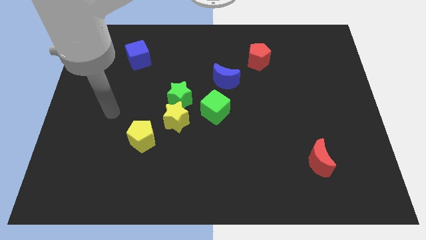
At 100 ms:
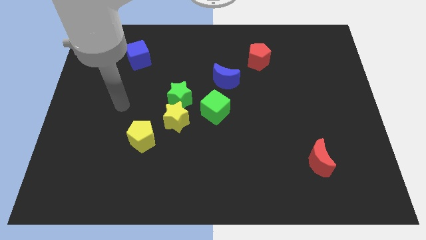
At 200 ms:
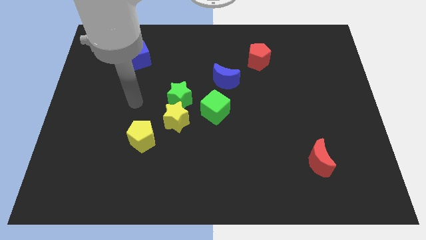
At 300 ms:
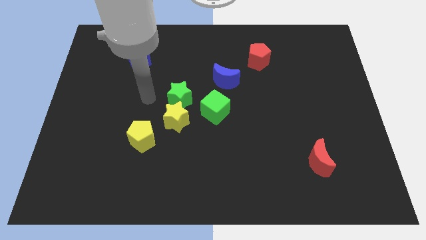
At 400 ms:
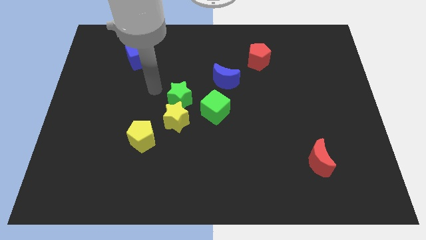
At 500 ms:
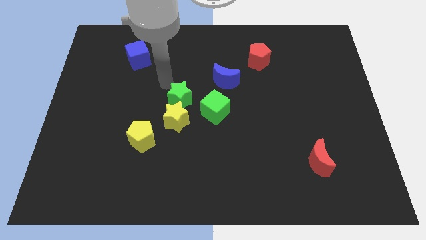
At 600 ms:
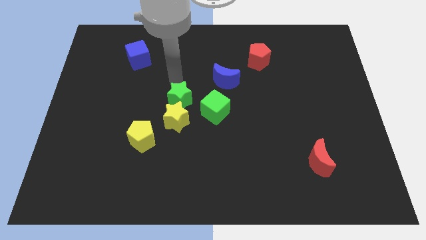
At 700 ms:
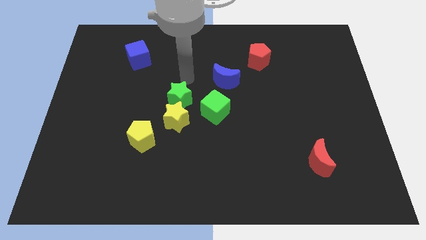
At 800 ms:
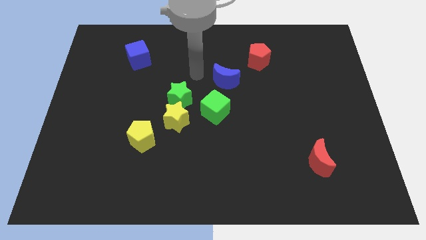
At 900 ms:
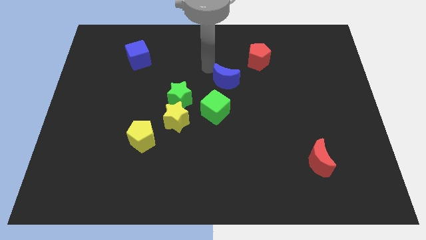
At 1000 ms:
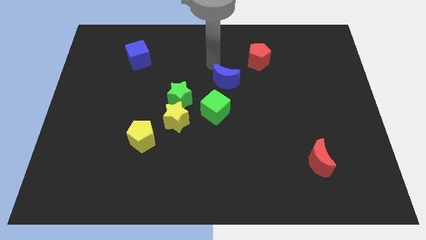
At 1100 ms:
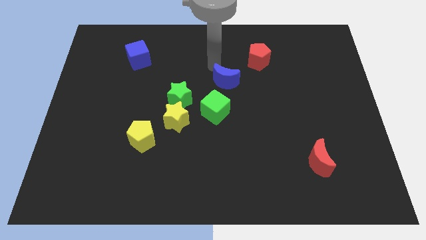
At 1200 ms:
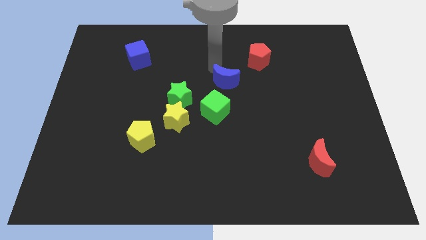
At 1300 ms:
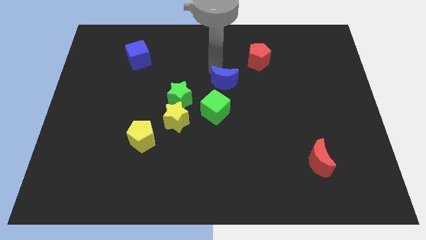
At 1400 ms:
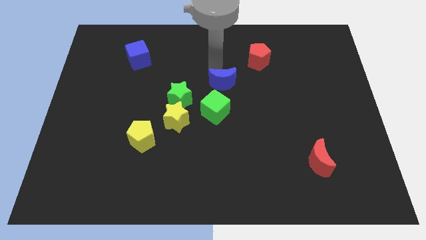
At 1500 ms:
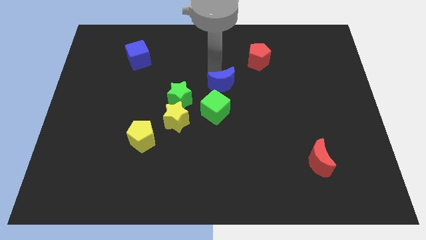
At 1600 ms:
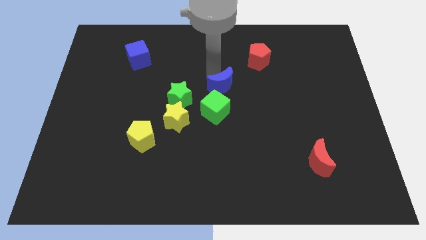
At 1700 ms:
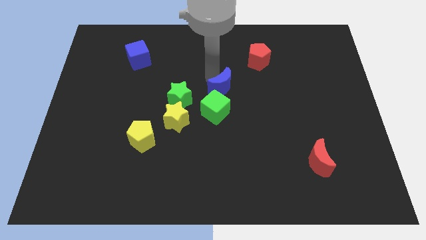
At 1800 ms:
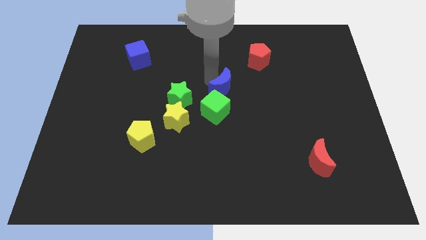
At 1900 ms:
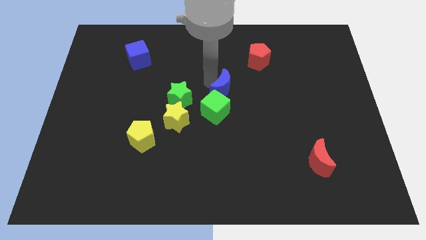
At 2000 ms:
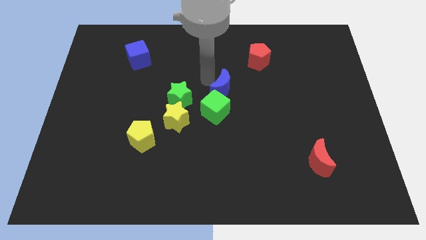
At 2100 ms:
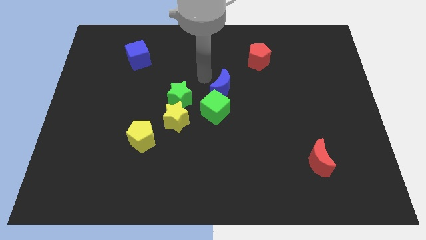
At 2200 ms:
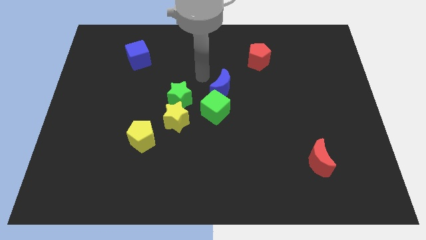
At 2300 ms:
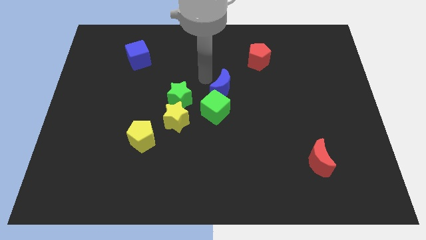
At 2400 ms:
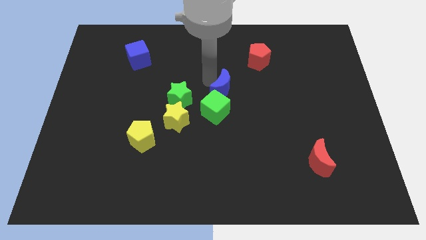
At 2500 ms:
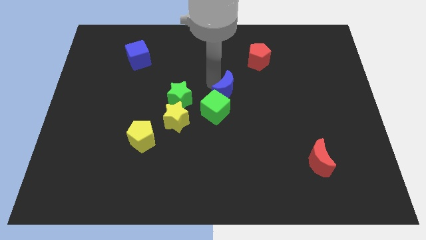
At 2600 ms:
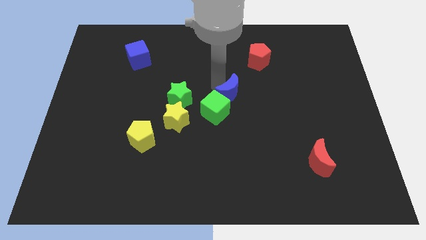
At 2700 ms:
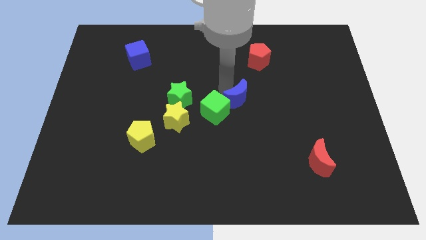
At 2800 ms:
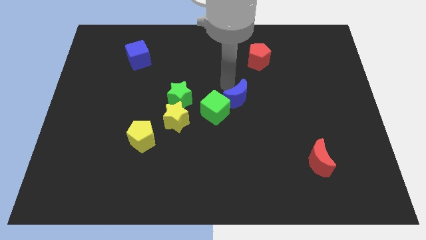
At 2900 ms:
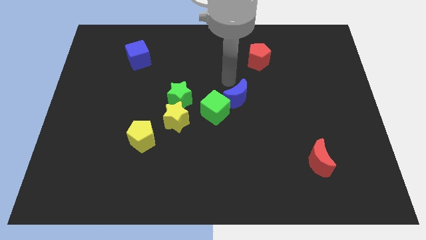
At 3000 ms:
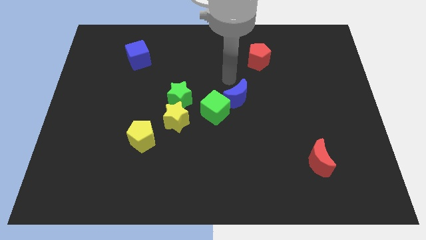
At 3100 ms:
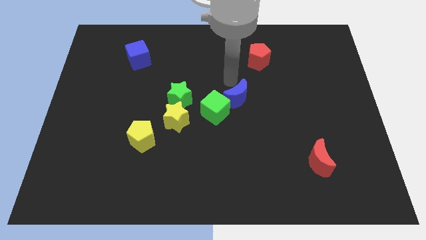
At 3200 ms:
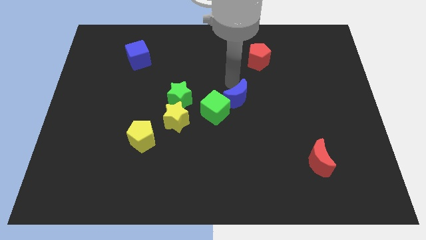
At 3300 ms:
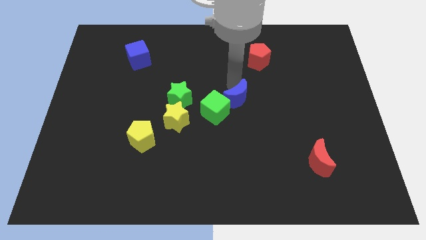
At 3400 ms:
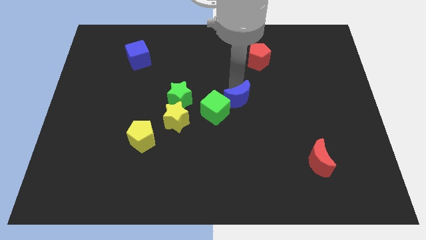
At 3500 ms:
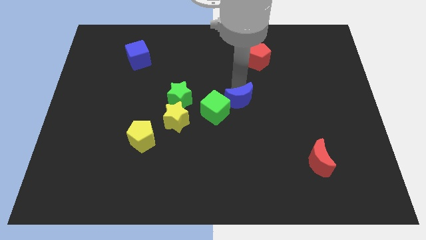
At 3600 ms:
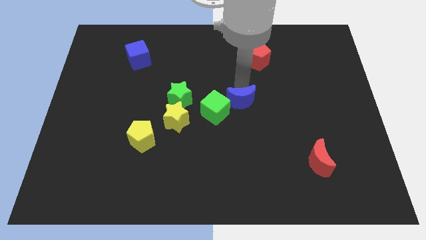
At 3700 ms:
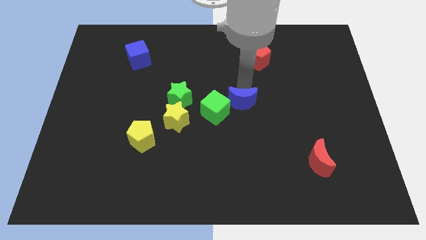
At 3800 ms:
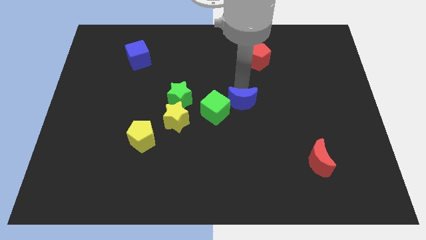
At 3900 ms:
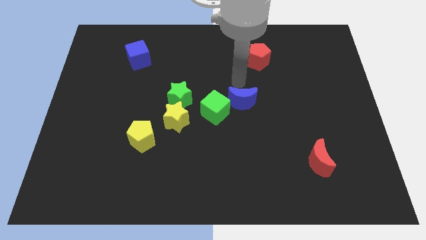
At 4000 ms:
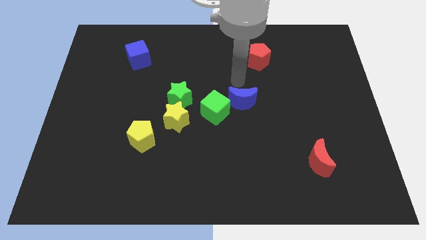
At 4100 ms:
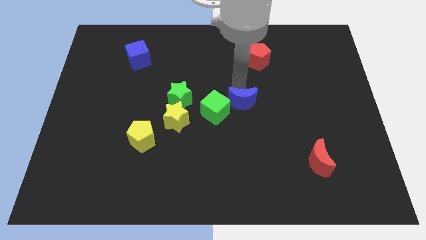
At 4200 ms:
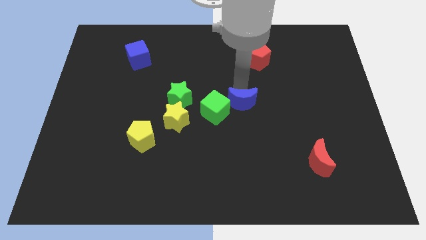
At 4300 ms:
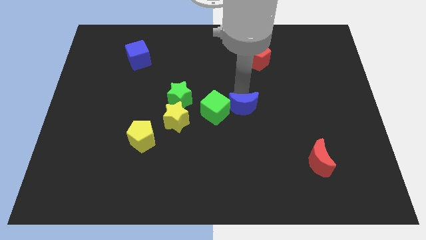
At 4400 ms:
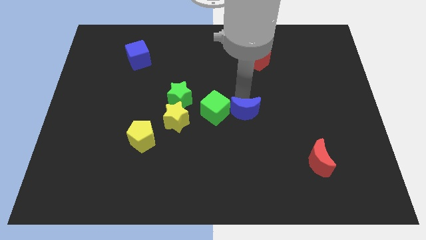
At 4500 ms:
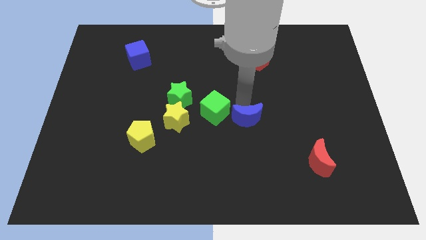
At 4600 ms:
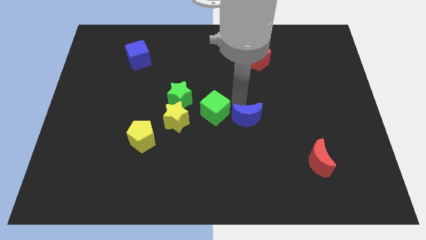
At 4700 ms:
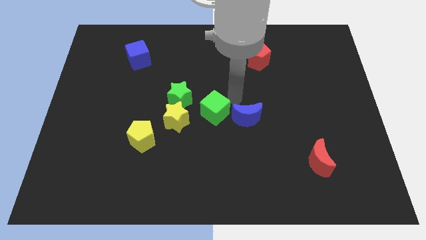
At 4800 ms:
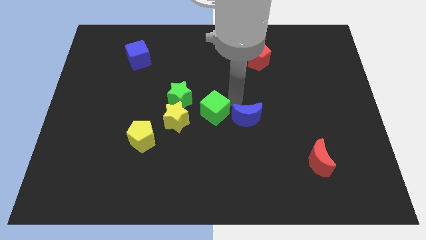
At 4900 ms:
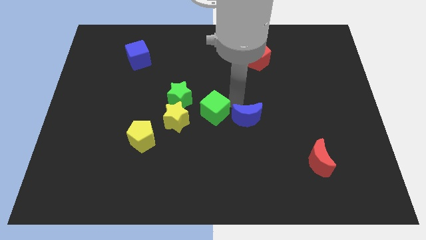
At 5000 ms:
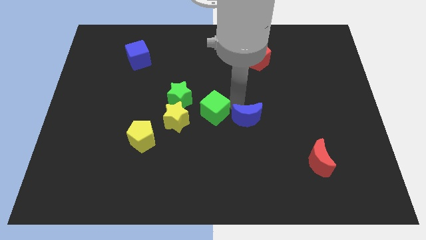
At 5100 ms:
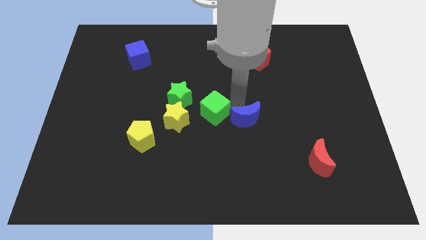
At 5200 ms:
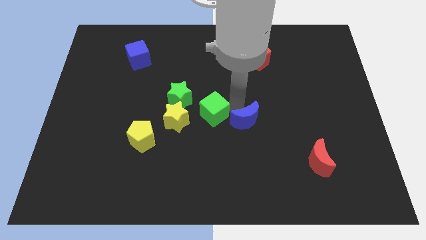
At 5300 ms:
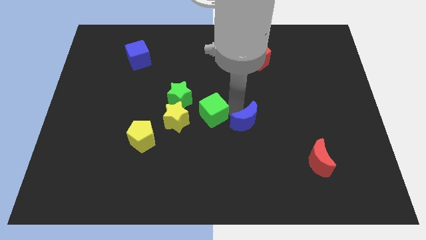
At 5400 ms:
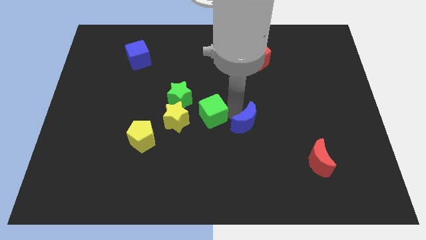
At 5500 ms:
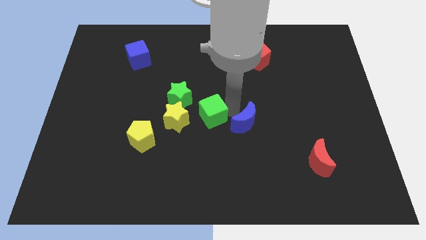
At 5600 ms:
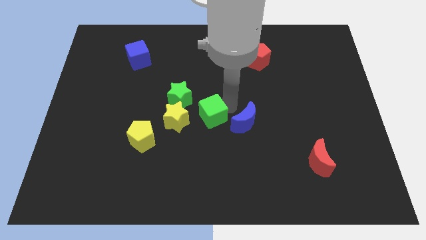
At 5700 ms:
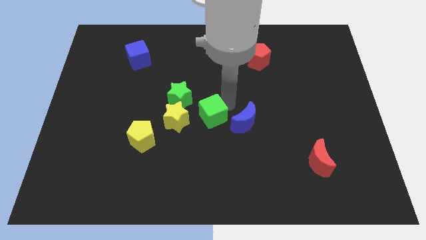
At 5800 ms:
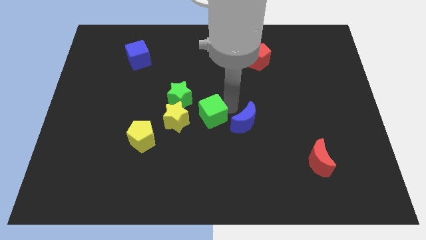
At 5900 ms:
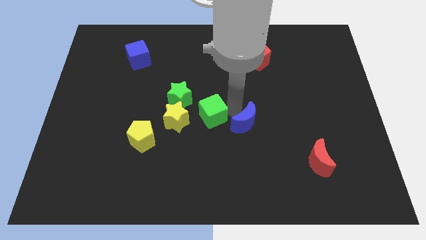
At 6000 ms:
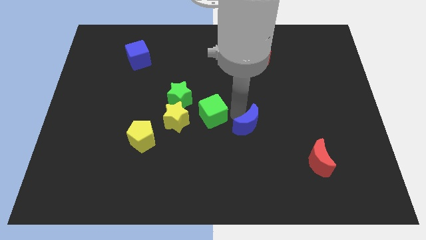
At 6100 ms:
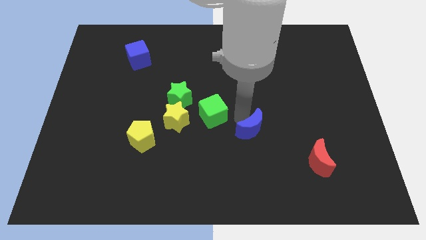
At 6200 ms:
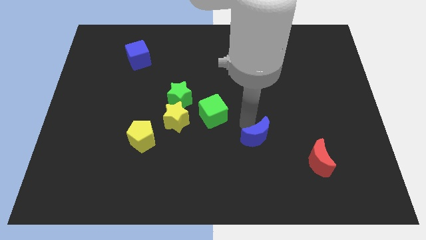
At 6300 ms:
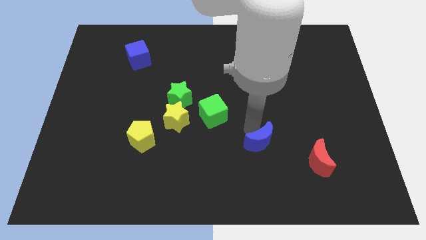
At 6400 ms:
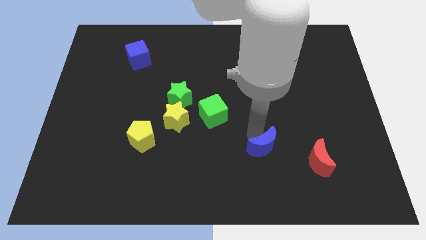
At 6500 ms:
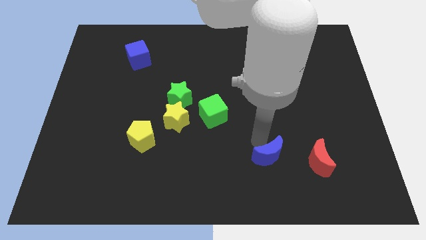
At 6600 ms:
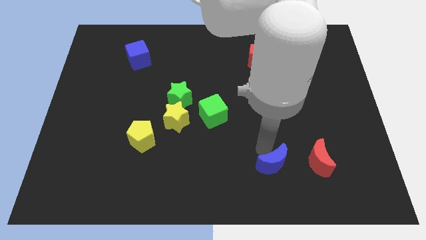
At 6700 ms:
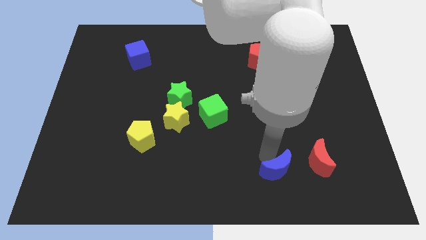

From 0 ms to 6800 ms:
slide the blue moon to the bottom left of the red moon
